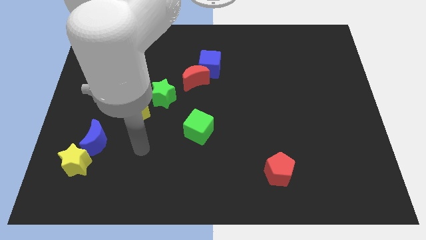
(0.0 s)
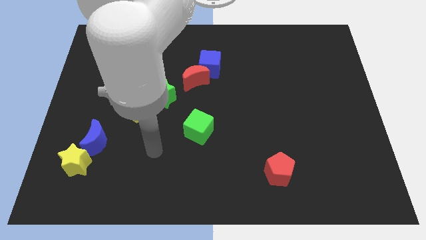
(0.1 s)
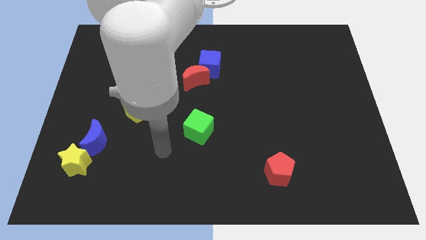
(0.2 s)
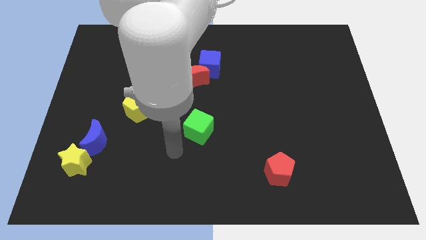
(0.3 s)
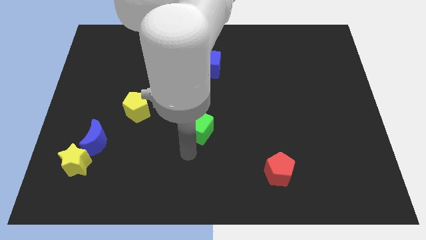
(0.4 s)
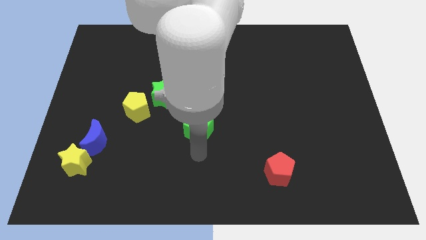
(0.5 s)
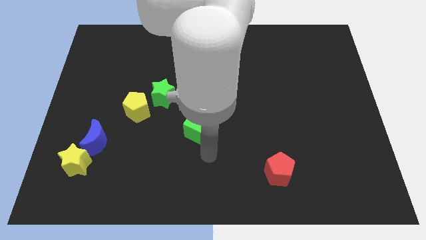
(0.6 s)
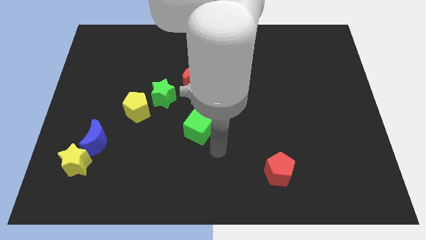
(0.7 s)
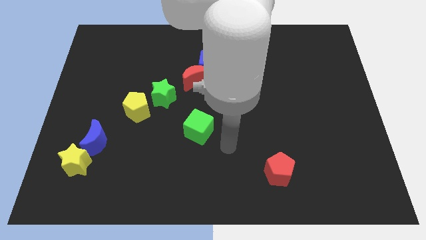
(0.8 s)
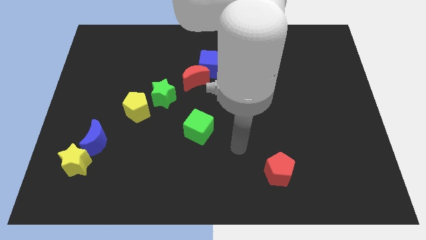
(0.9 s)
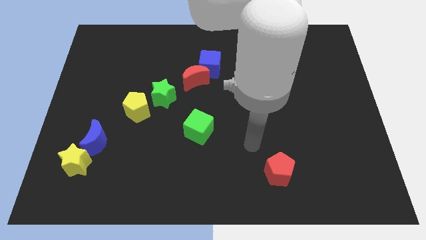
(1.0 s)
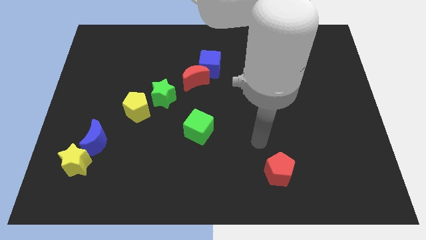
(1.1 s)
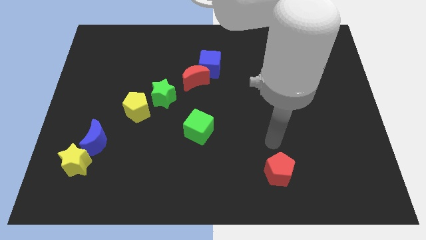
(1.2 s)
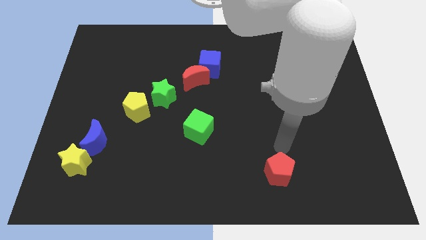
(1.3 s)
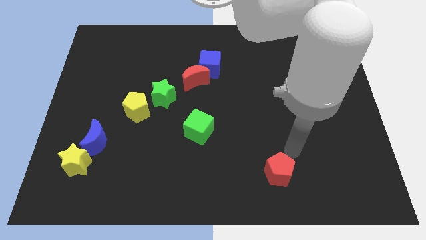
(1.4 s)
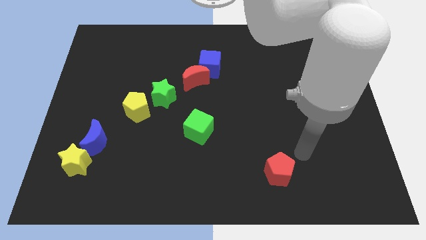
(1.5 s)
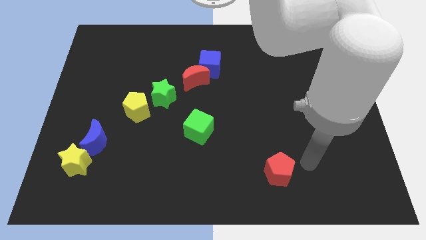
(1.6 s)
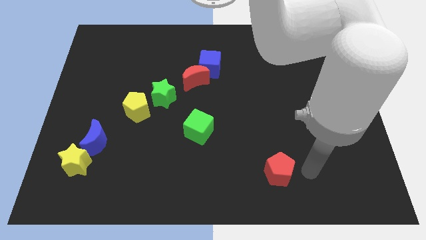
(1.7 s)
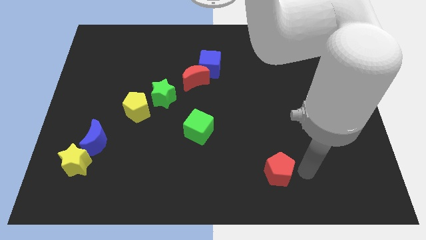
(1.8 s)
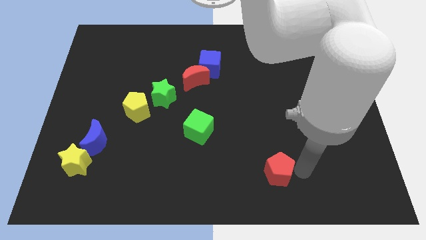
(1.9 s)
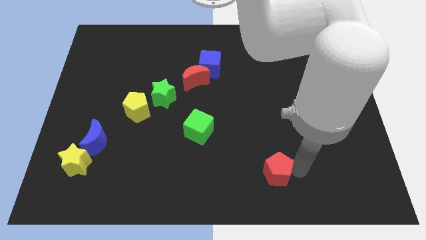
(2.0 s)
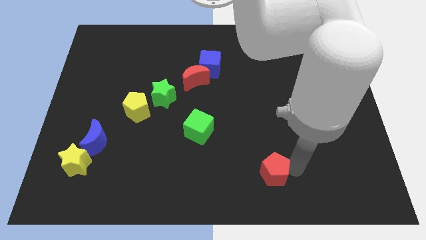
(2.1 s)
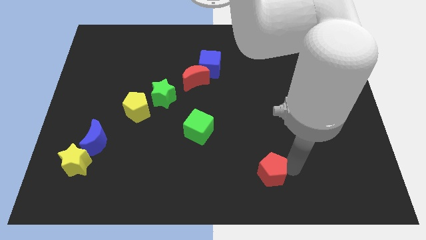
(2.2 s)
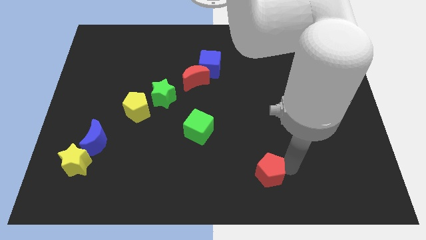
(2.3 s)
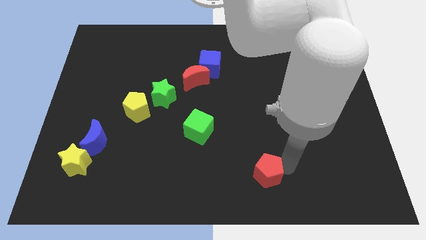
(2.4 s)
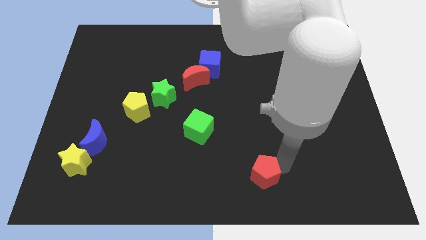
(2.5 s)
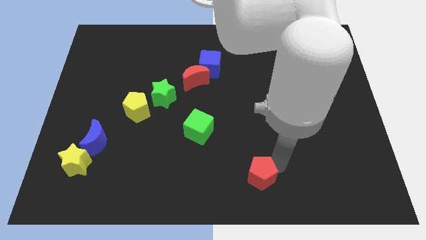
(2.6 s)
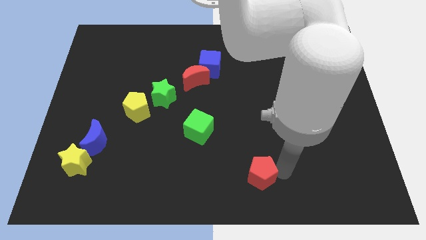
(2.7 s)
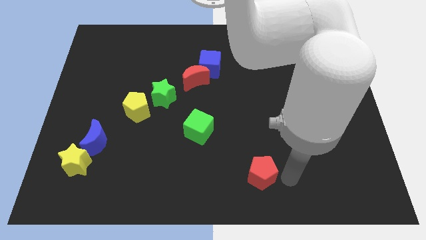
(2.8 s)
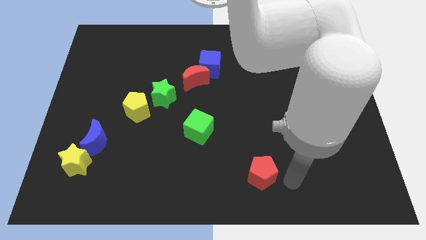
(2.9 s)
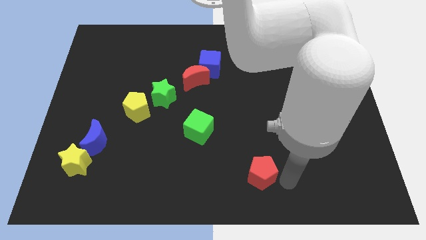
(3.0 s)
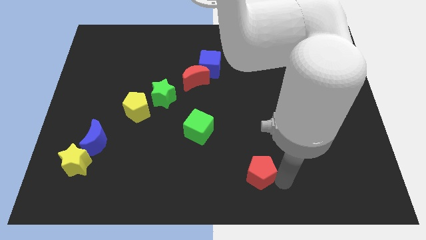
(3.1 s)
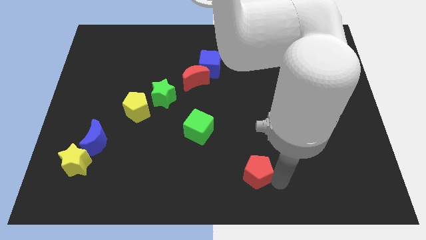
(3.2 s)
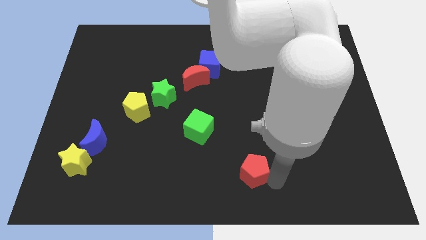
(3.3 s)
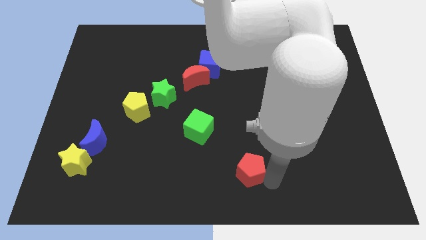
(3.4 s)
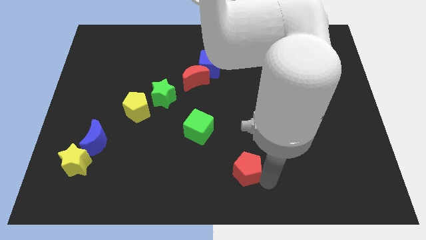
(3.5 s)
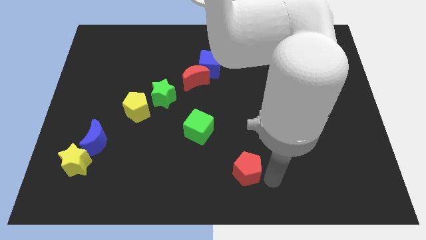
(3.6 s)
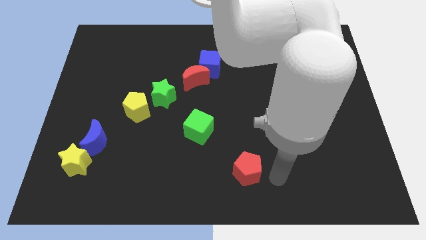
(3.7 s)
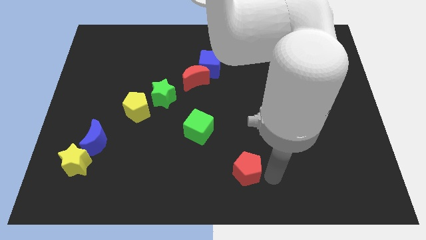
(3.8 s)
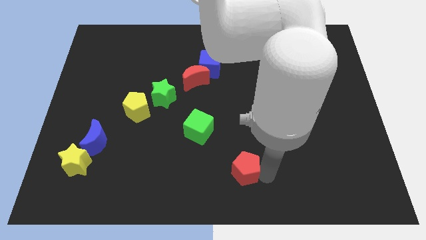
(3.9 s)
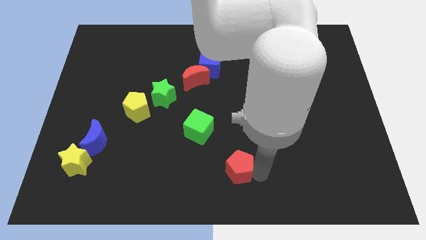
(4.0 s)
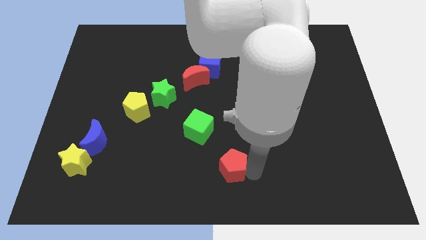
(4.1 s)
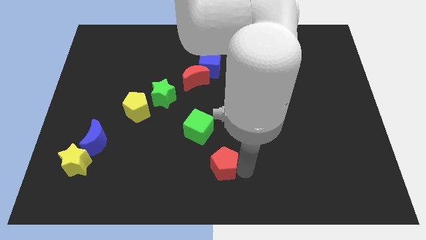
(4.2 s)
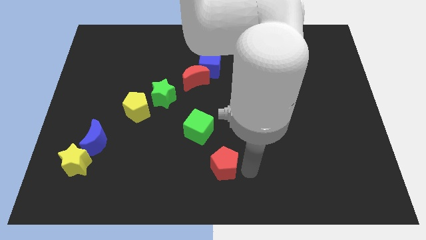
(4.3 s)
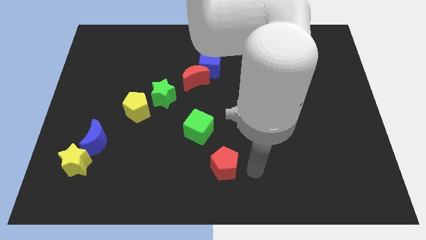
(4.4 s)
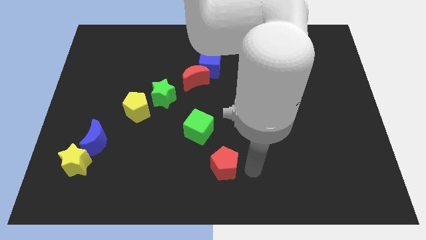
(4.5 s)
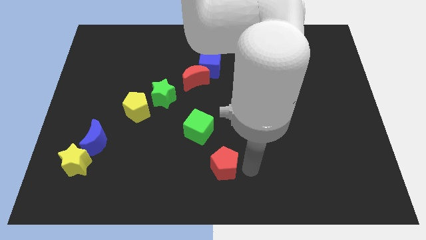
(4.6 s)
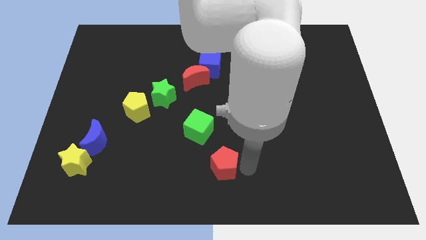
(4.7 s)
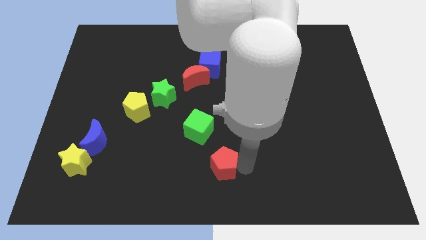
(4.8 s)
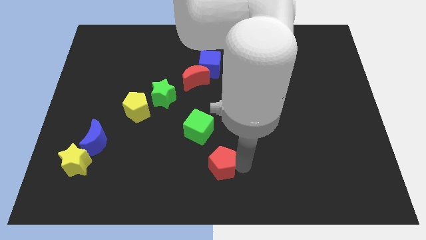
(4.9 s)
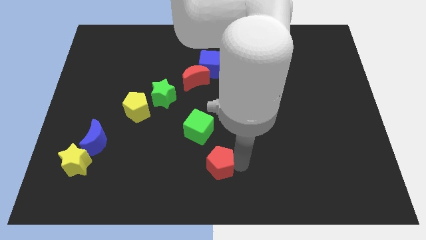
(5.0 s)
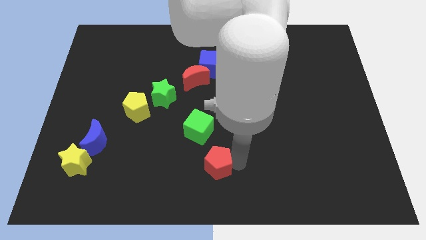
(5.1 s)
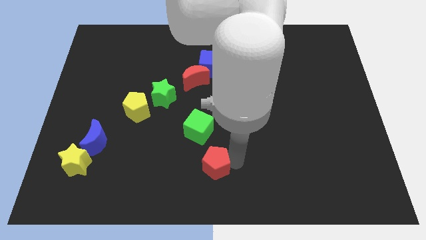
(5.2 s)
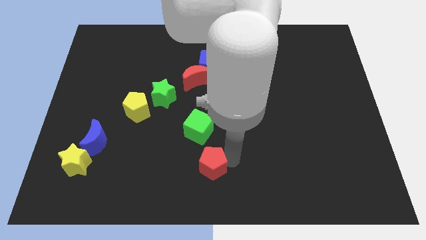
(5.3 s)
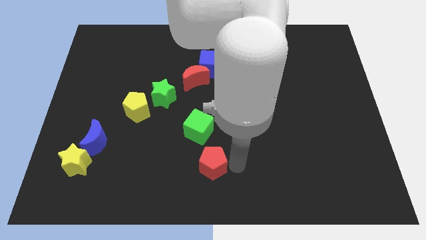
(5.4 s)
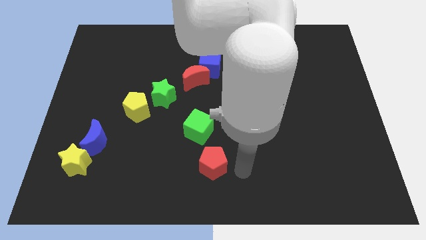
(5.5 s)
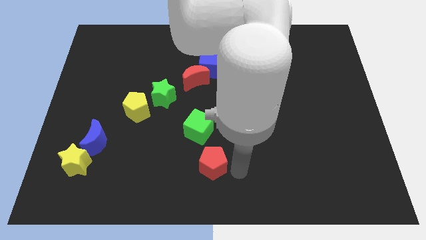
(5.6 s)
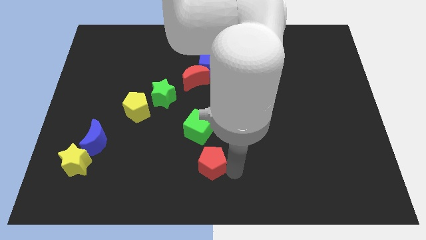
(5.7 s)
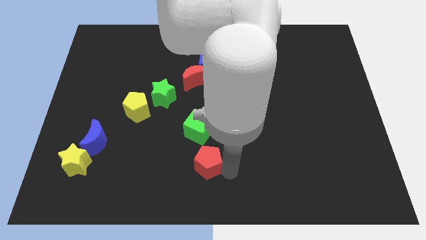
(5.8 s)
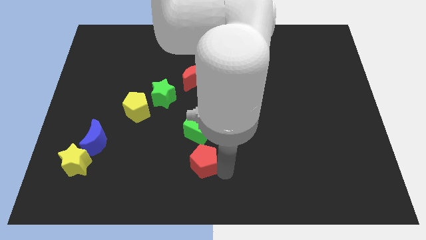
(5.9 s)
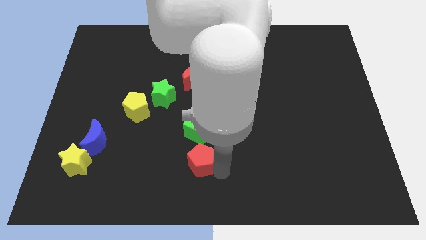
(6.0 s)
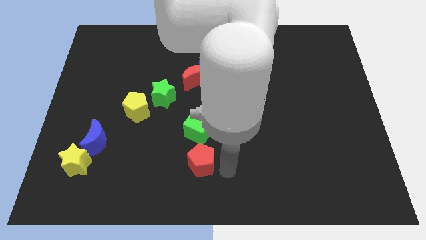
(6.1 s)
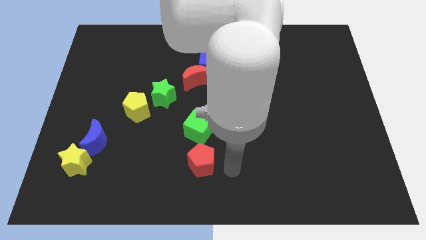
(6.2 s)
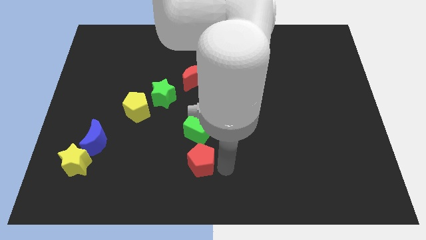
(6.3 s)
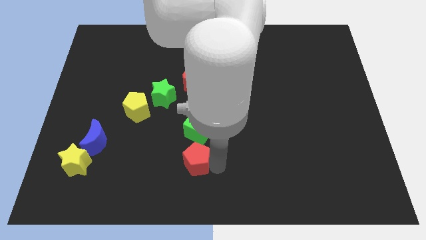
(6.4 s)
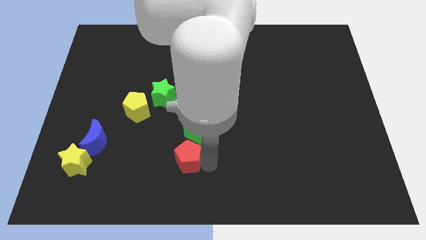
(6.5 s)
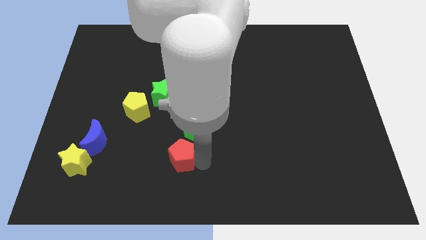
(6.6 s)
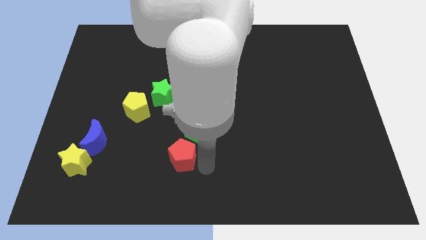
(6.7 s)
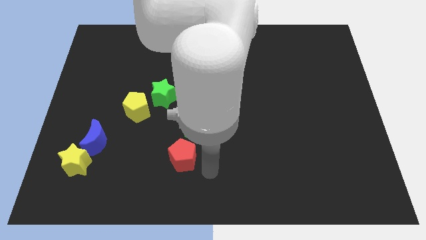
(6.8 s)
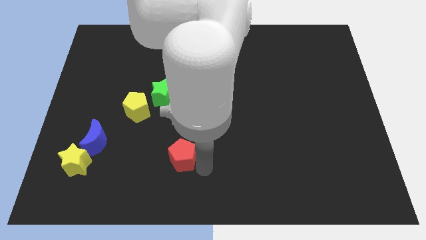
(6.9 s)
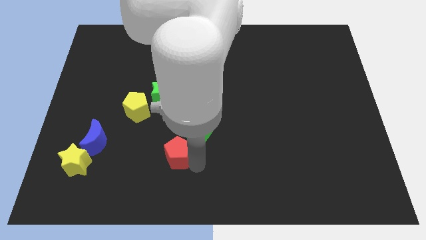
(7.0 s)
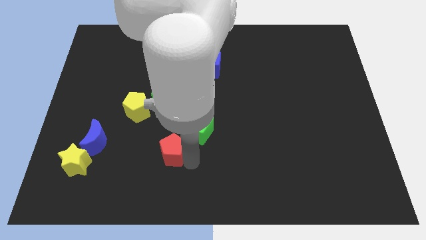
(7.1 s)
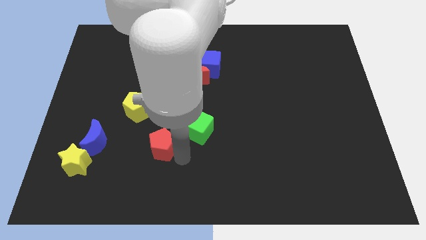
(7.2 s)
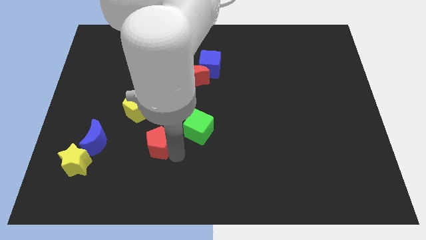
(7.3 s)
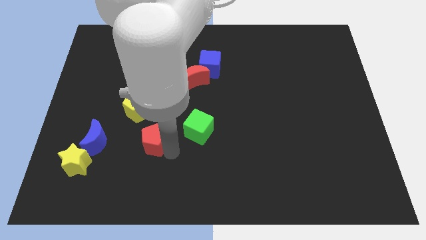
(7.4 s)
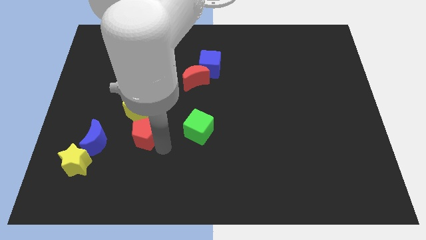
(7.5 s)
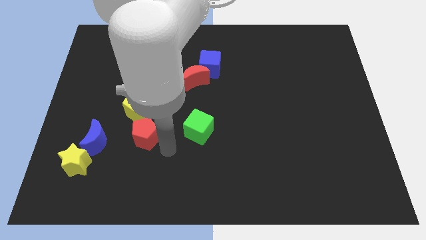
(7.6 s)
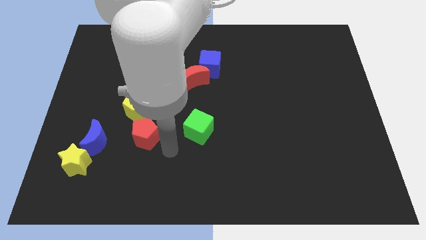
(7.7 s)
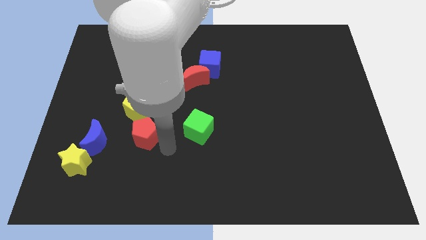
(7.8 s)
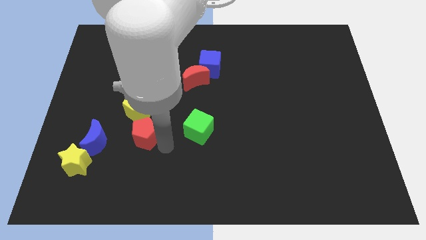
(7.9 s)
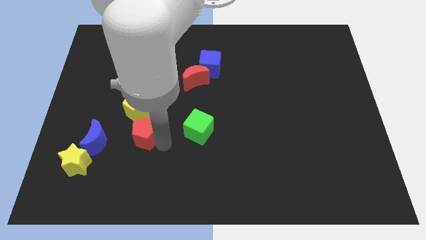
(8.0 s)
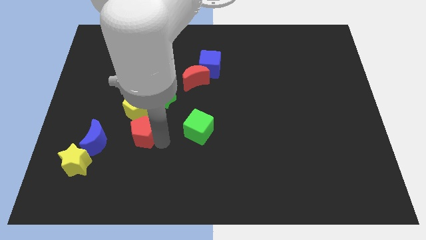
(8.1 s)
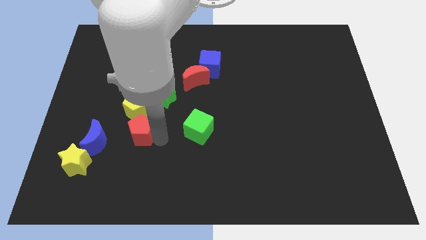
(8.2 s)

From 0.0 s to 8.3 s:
push the red pentagon to the bottom left of the green star
